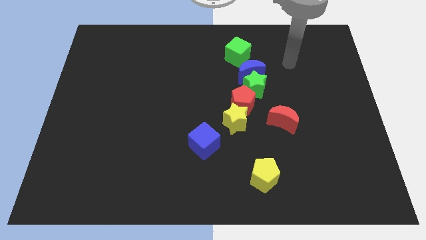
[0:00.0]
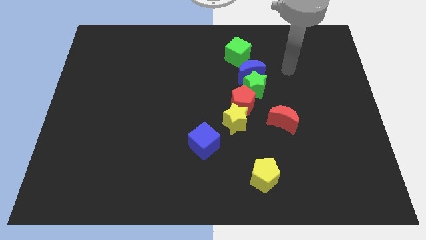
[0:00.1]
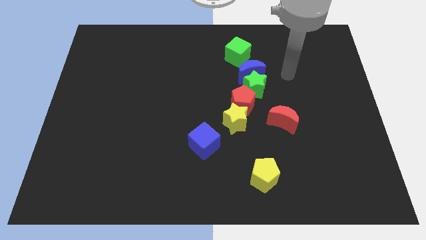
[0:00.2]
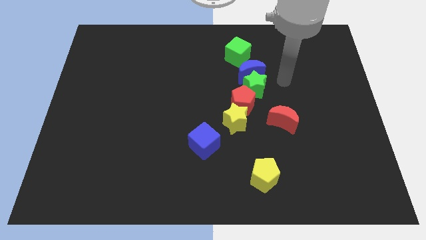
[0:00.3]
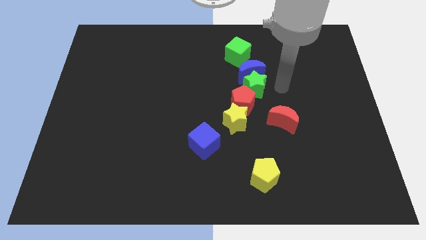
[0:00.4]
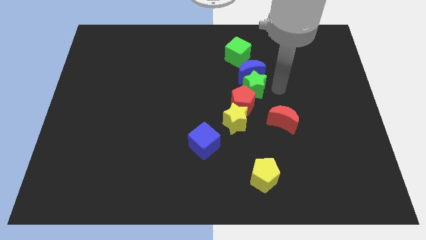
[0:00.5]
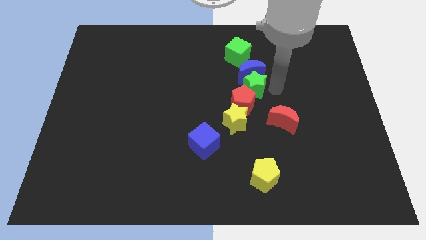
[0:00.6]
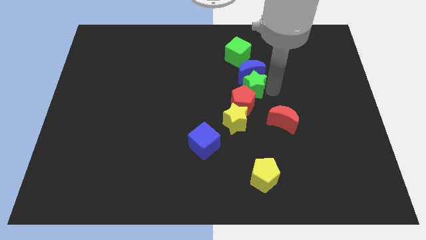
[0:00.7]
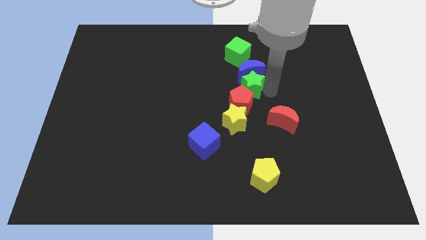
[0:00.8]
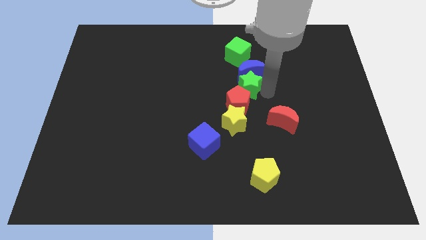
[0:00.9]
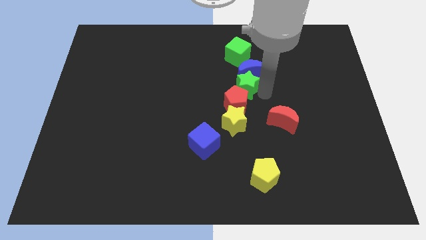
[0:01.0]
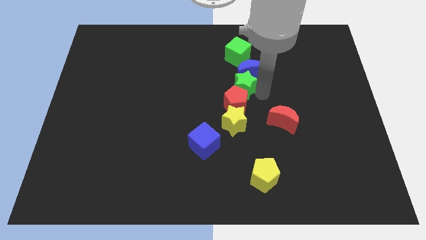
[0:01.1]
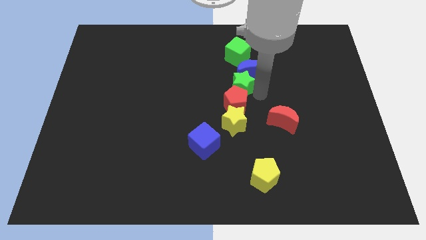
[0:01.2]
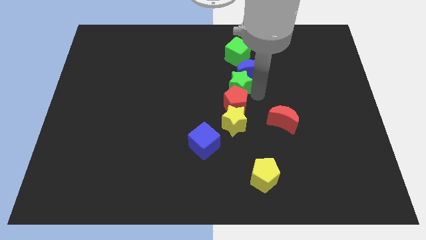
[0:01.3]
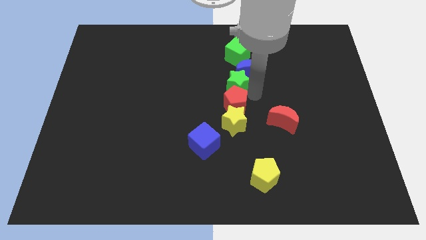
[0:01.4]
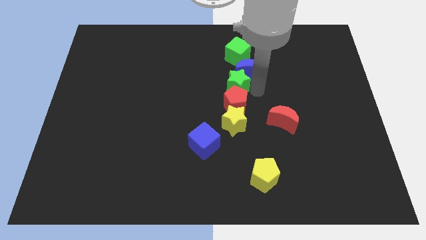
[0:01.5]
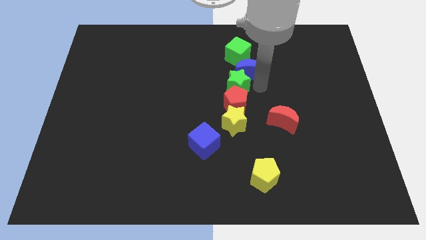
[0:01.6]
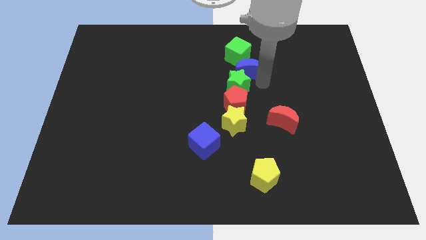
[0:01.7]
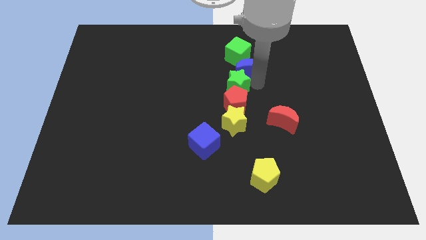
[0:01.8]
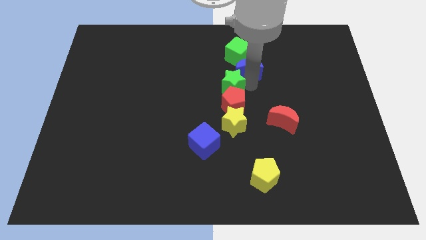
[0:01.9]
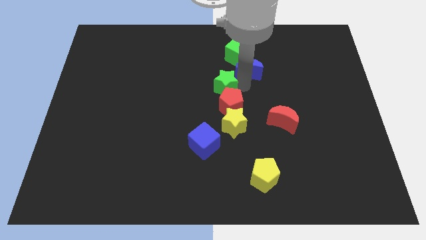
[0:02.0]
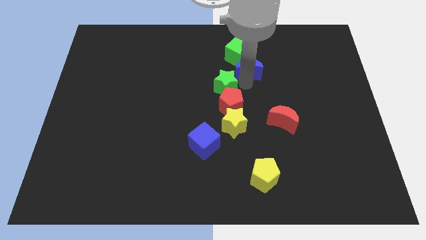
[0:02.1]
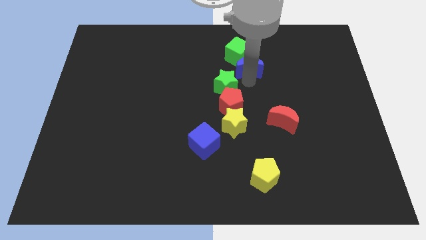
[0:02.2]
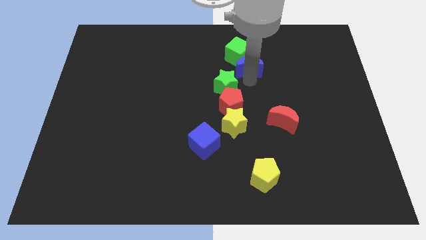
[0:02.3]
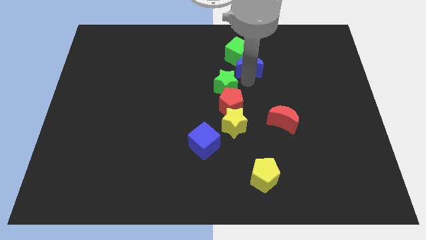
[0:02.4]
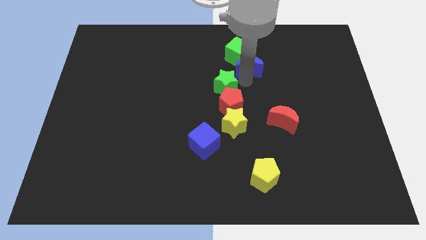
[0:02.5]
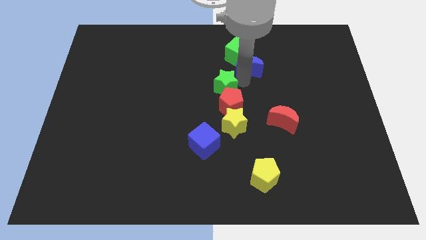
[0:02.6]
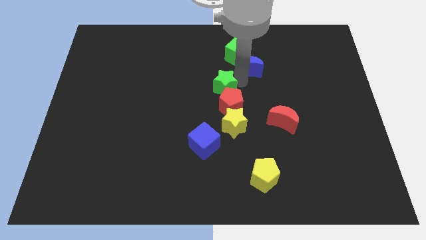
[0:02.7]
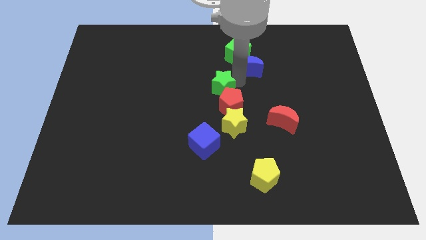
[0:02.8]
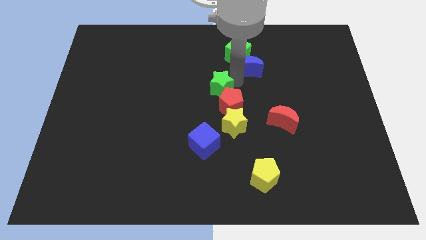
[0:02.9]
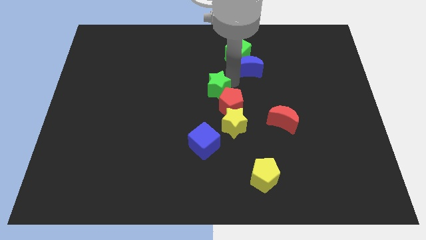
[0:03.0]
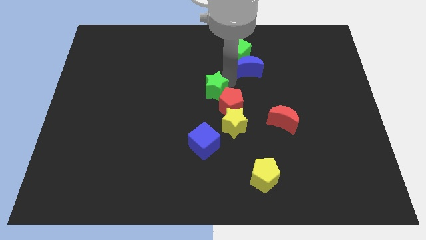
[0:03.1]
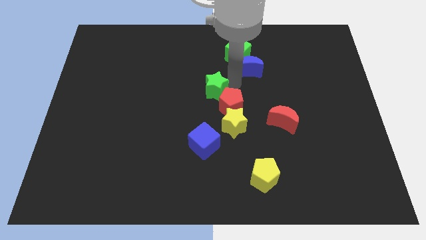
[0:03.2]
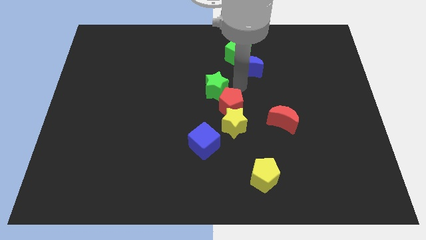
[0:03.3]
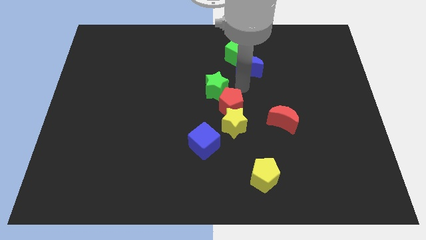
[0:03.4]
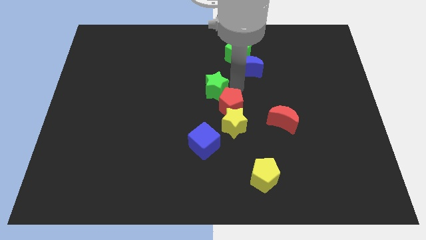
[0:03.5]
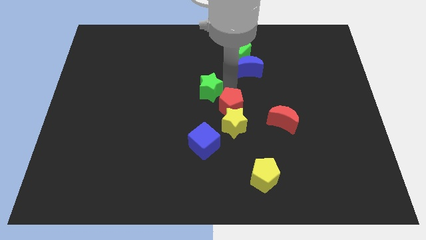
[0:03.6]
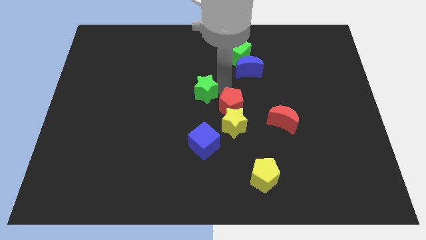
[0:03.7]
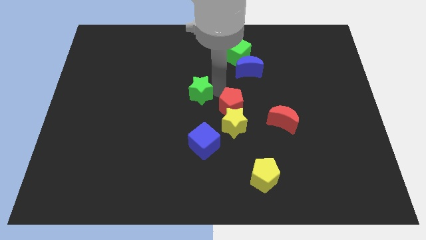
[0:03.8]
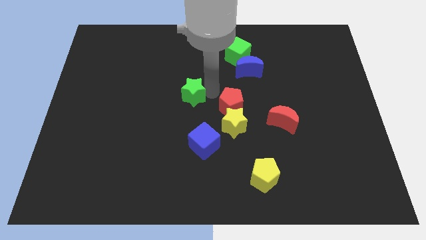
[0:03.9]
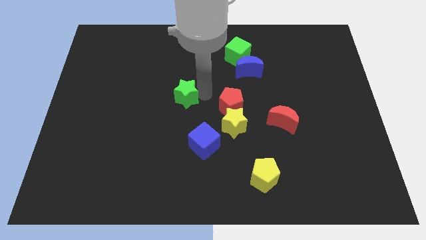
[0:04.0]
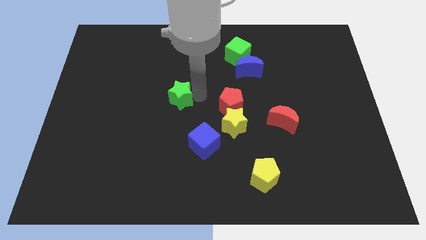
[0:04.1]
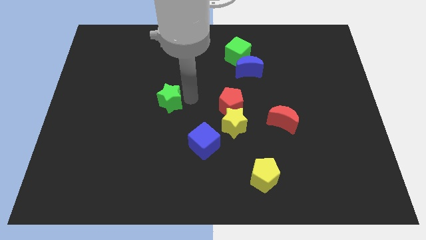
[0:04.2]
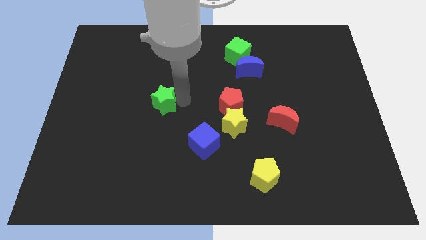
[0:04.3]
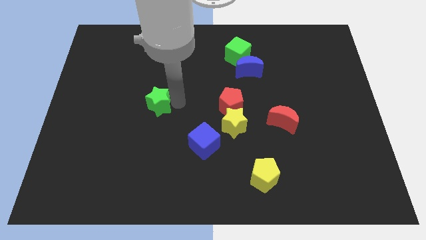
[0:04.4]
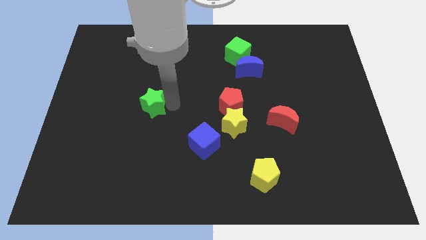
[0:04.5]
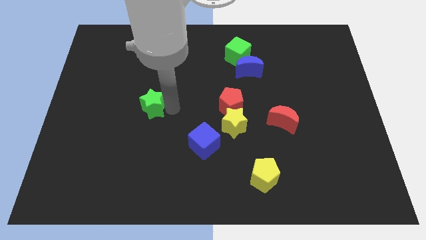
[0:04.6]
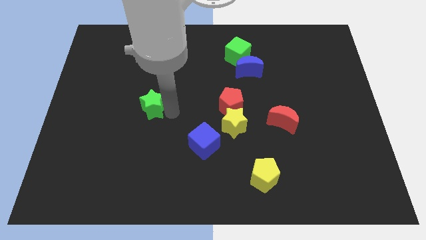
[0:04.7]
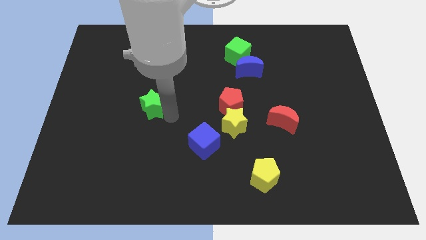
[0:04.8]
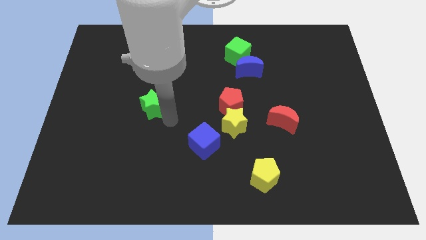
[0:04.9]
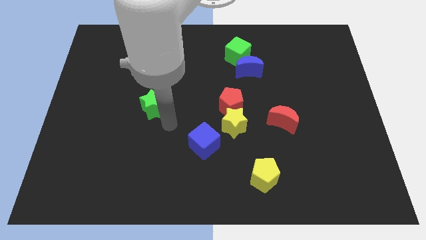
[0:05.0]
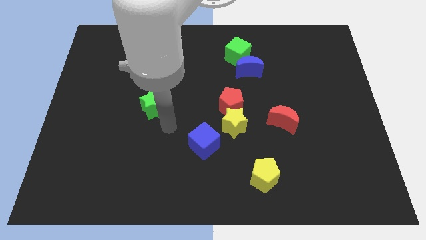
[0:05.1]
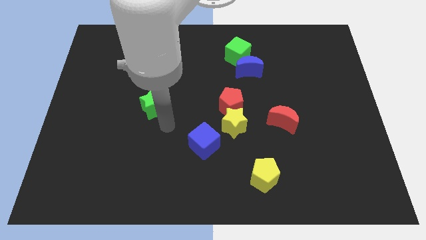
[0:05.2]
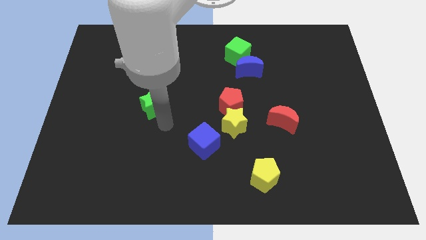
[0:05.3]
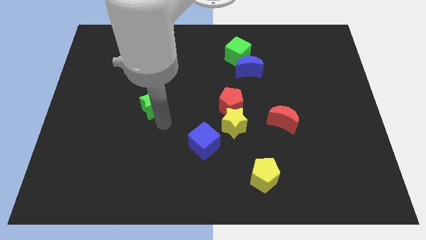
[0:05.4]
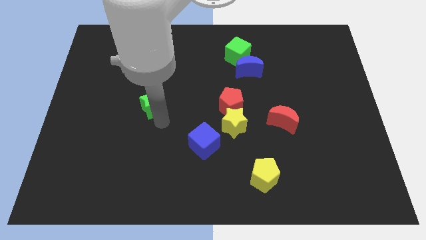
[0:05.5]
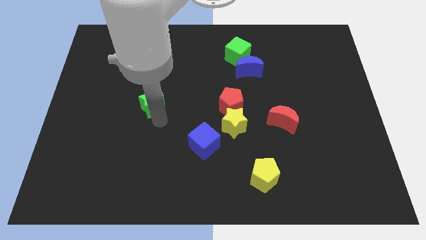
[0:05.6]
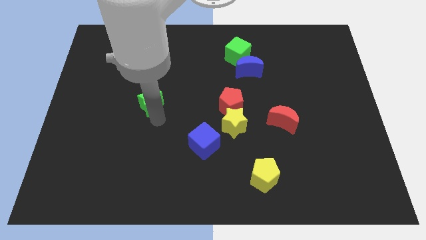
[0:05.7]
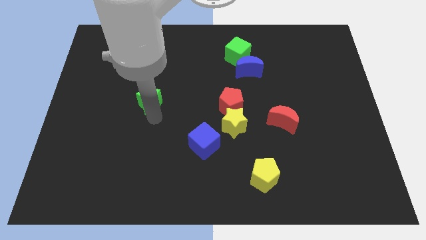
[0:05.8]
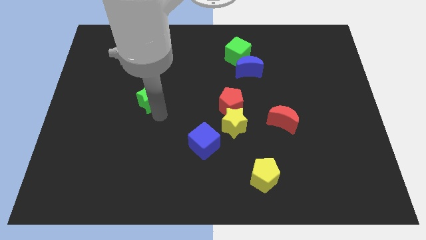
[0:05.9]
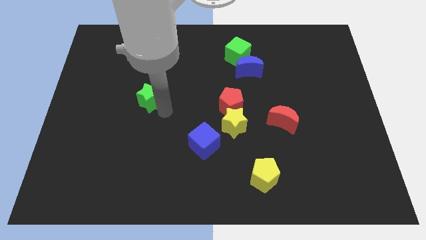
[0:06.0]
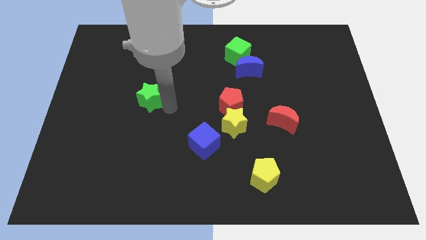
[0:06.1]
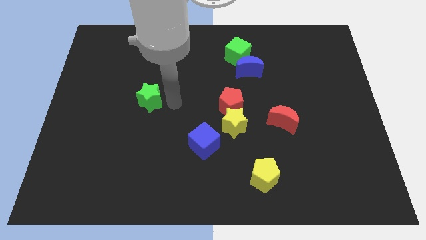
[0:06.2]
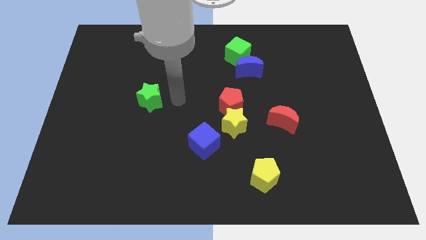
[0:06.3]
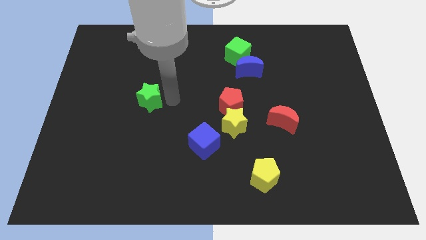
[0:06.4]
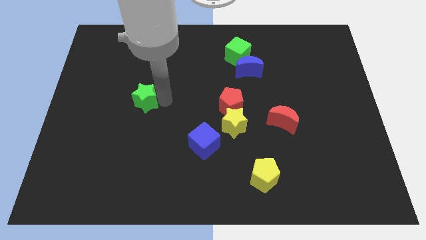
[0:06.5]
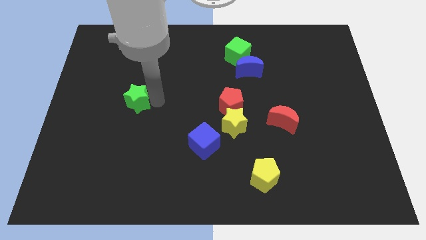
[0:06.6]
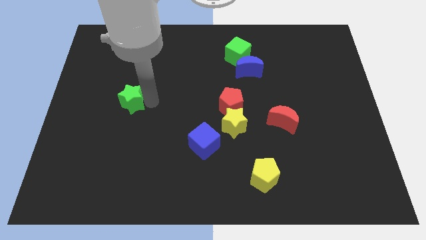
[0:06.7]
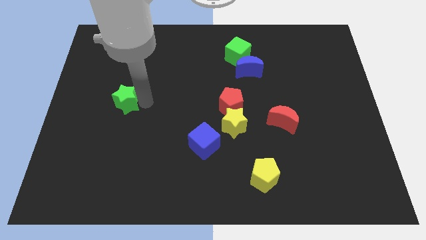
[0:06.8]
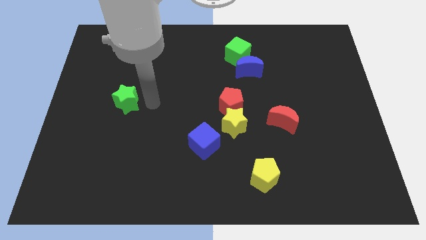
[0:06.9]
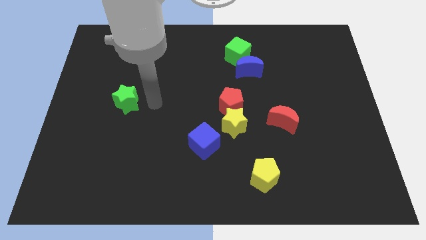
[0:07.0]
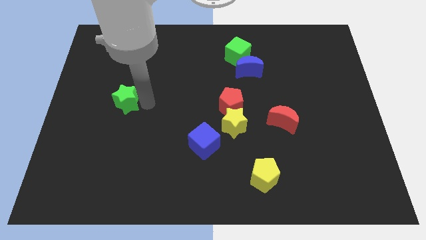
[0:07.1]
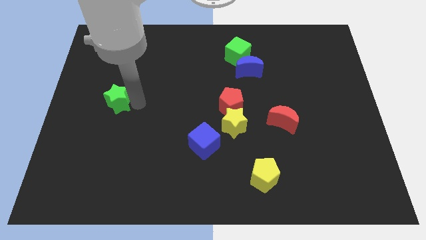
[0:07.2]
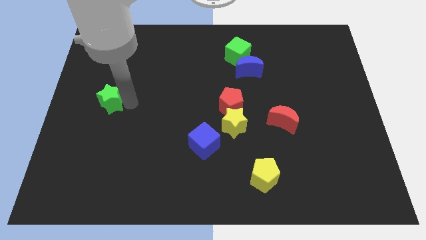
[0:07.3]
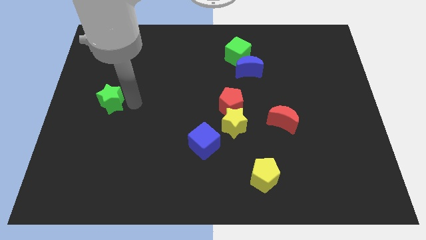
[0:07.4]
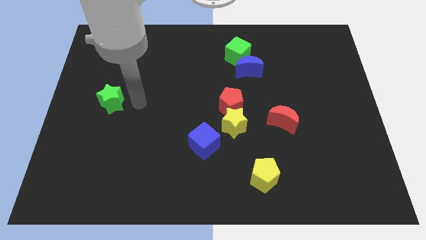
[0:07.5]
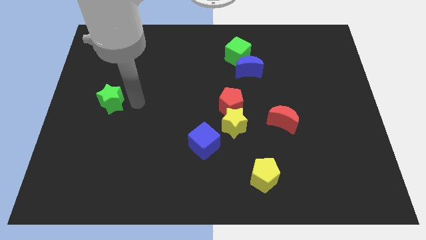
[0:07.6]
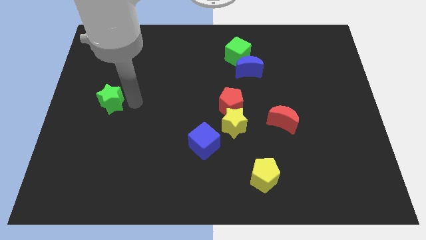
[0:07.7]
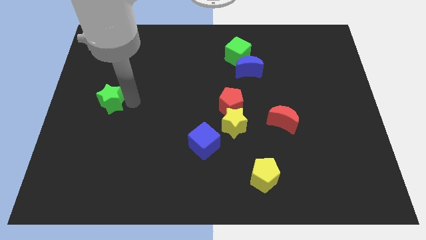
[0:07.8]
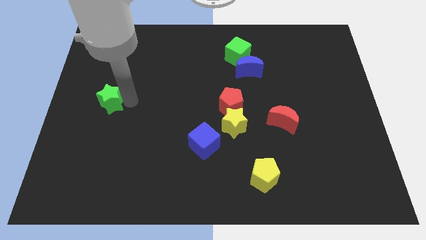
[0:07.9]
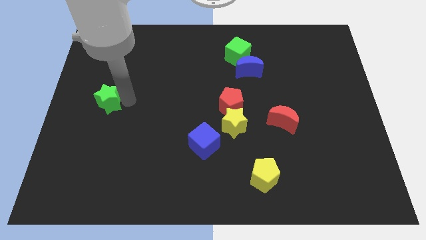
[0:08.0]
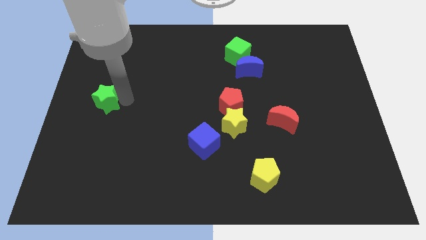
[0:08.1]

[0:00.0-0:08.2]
slide the green star to the left side
